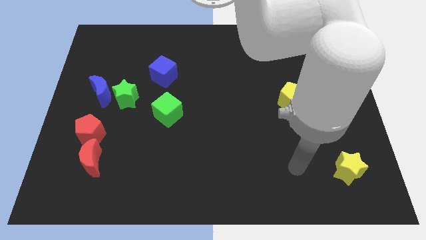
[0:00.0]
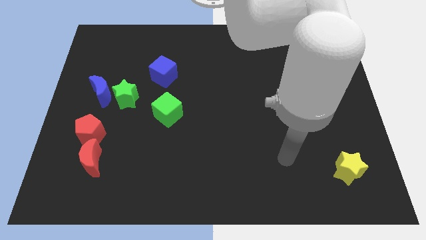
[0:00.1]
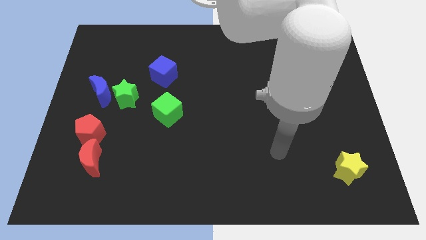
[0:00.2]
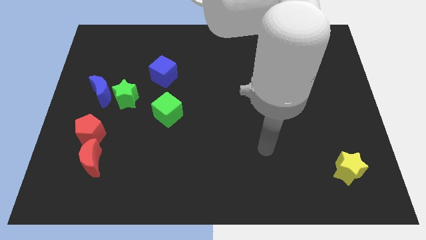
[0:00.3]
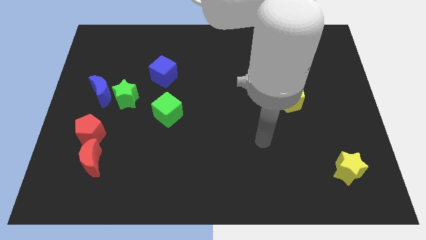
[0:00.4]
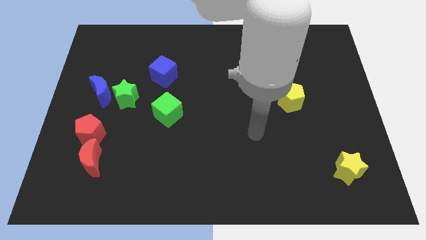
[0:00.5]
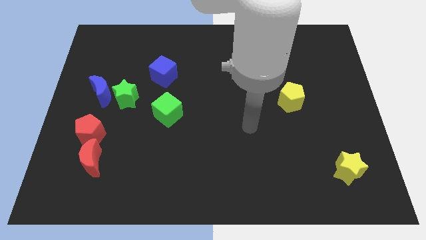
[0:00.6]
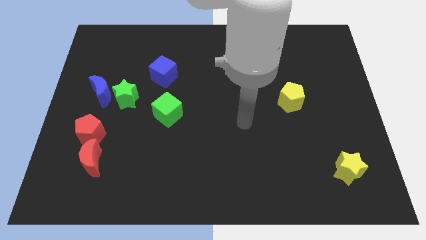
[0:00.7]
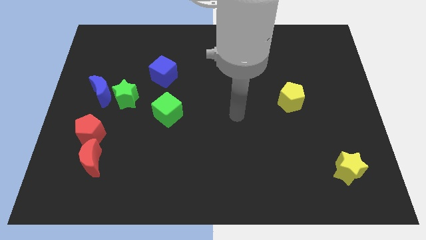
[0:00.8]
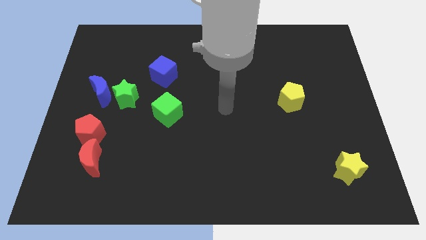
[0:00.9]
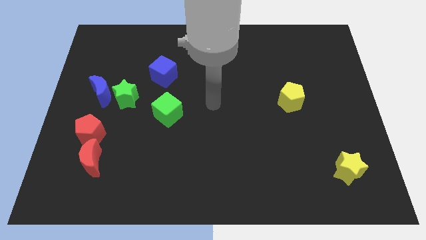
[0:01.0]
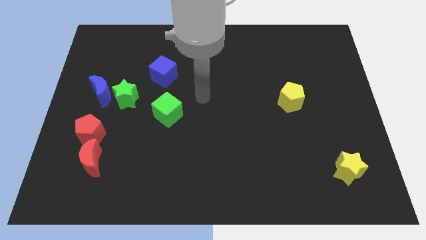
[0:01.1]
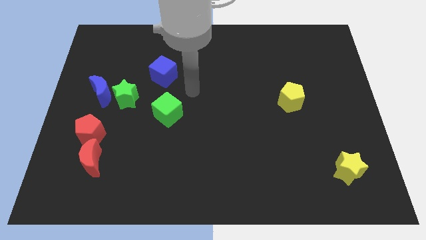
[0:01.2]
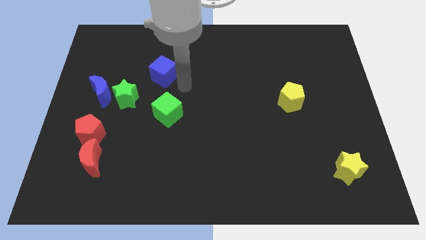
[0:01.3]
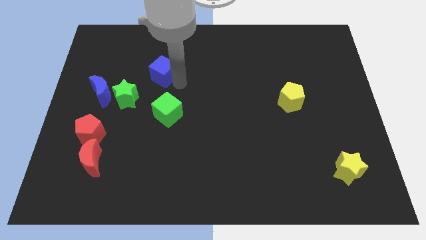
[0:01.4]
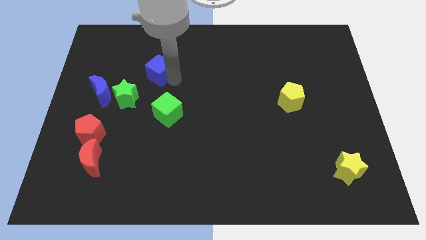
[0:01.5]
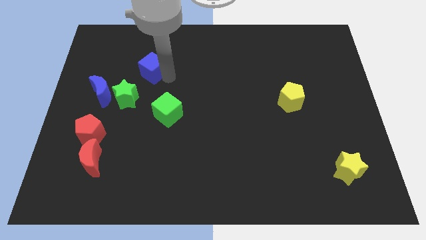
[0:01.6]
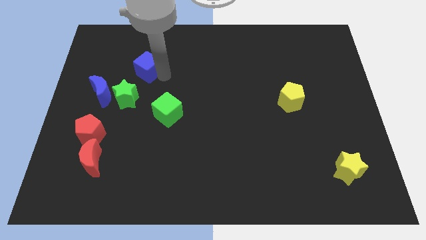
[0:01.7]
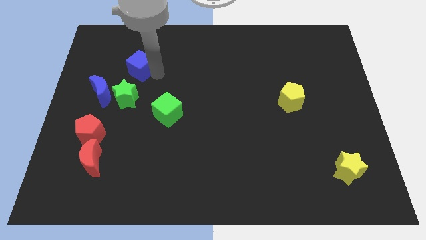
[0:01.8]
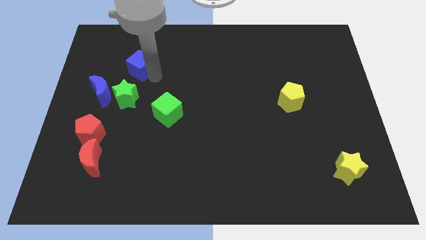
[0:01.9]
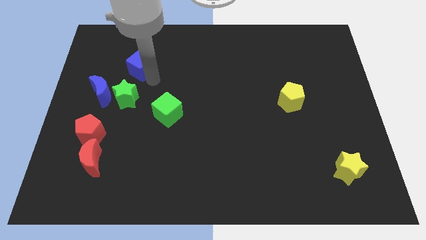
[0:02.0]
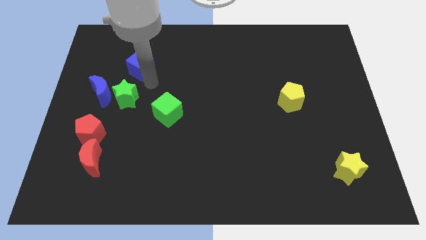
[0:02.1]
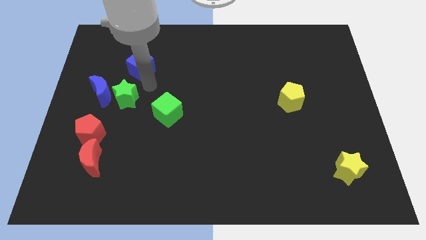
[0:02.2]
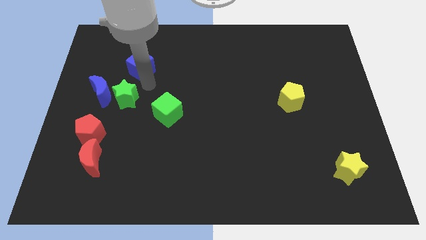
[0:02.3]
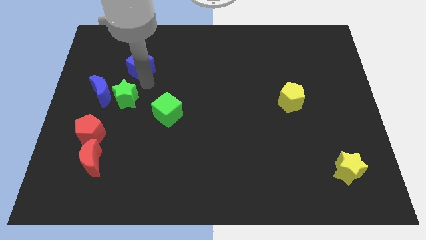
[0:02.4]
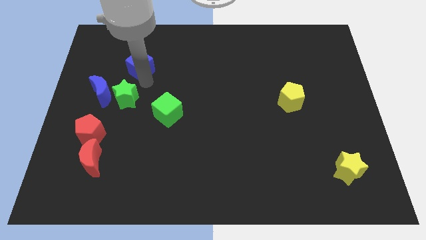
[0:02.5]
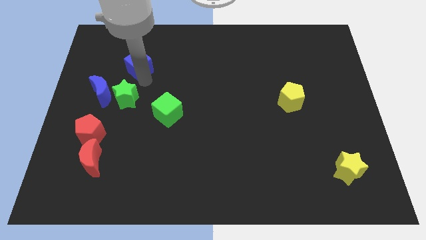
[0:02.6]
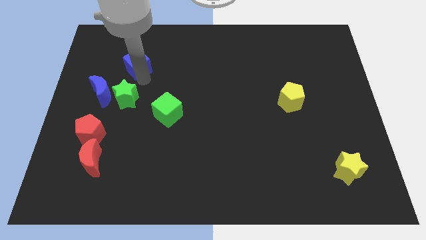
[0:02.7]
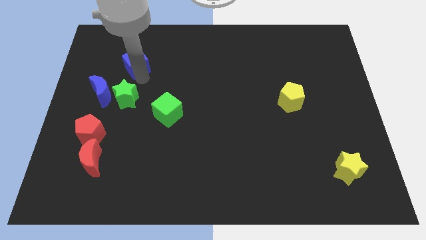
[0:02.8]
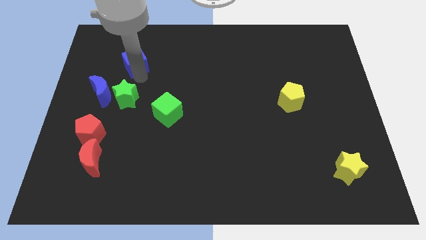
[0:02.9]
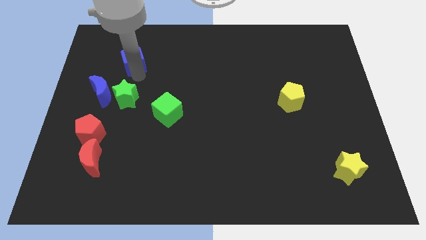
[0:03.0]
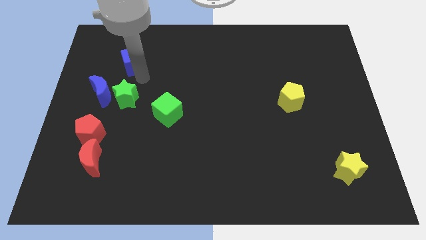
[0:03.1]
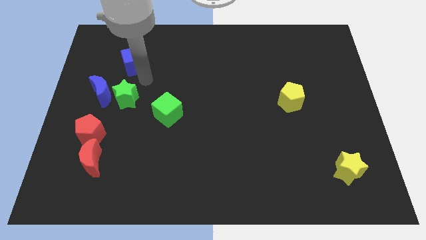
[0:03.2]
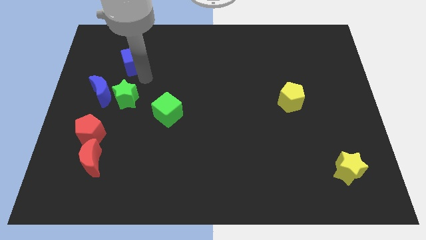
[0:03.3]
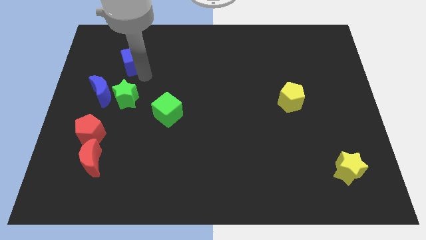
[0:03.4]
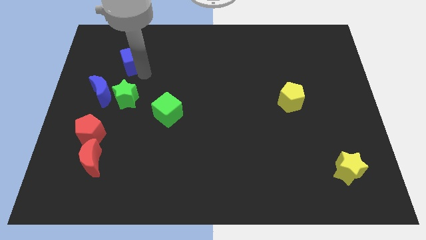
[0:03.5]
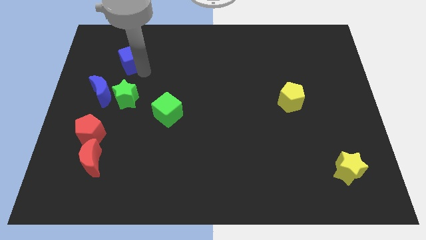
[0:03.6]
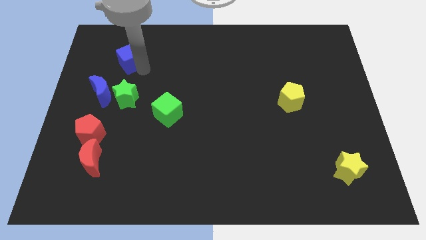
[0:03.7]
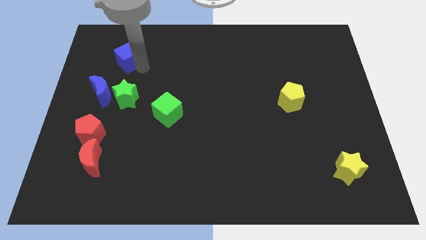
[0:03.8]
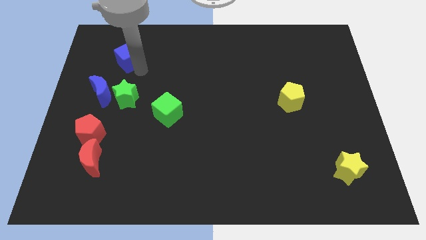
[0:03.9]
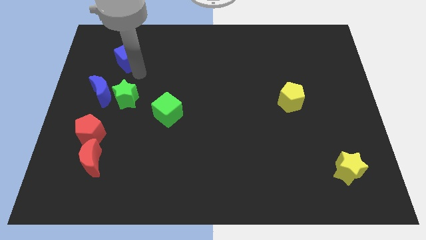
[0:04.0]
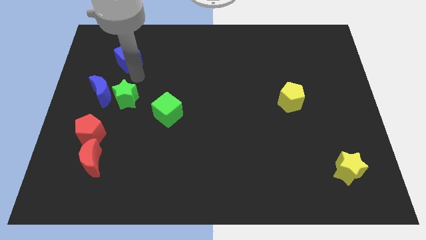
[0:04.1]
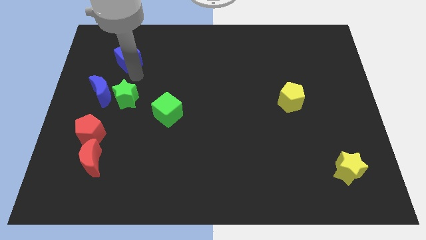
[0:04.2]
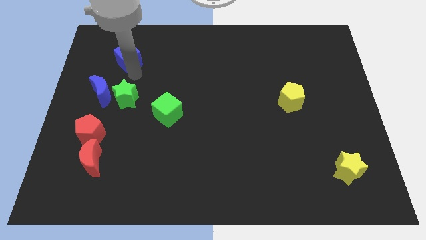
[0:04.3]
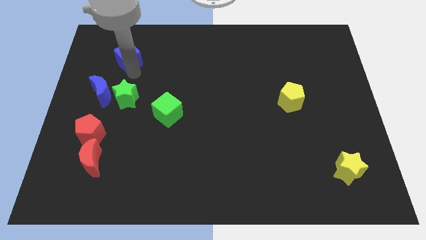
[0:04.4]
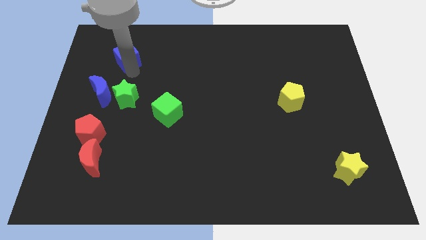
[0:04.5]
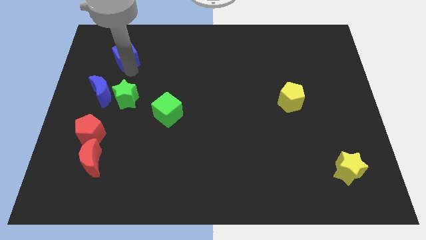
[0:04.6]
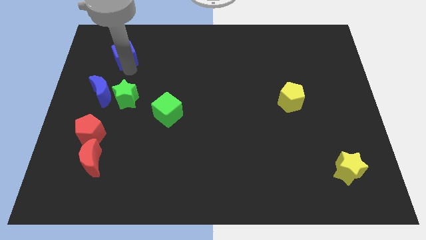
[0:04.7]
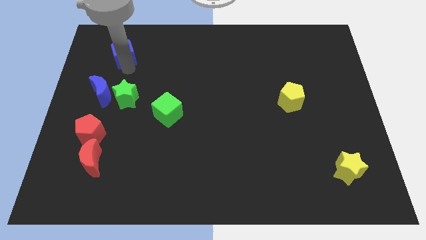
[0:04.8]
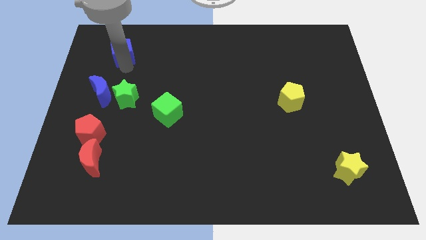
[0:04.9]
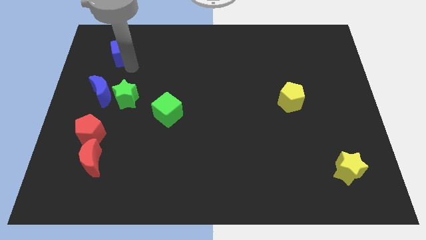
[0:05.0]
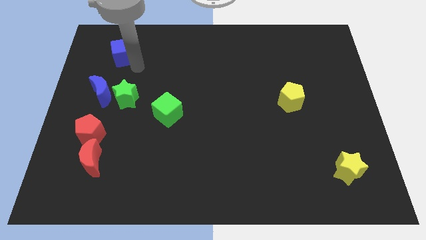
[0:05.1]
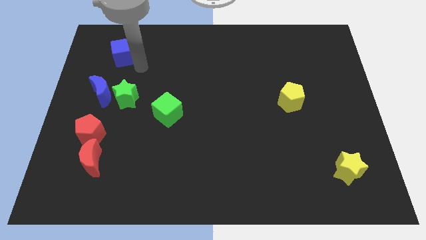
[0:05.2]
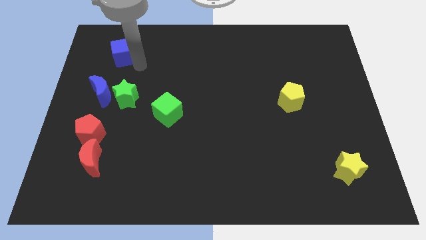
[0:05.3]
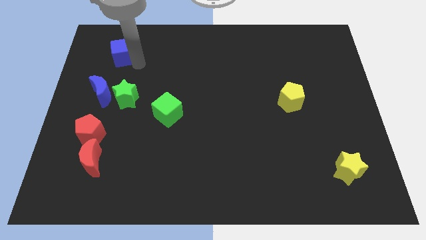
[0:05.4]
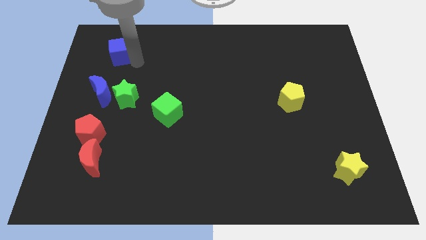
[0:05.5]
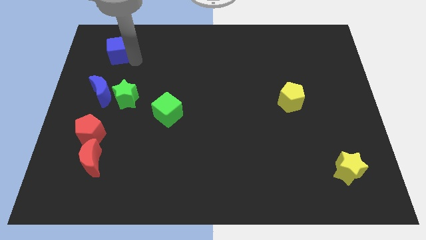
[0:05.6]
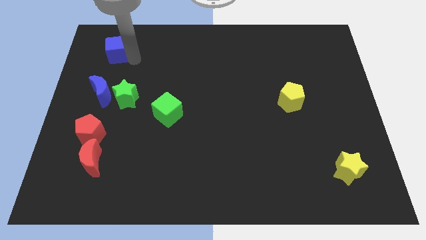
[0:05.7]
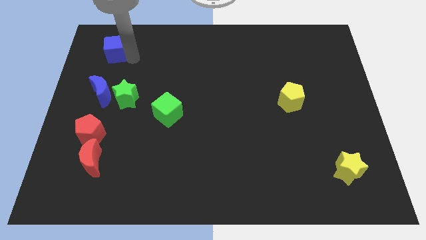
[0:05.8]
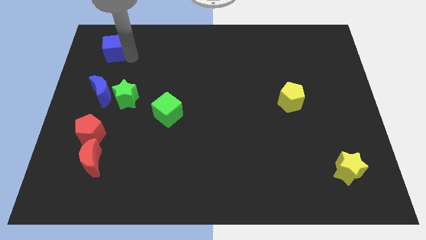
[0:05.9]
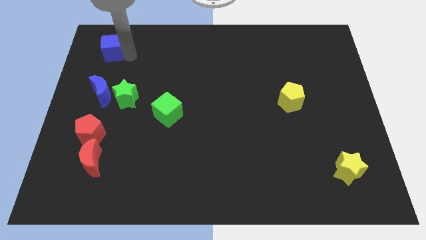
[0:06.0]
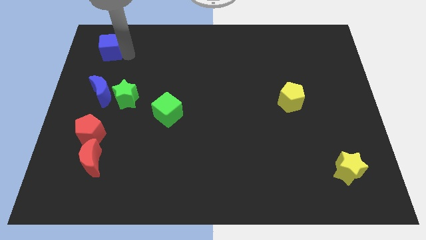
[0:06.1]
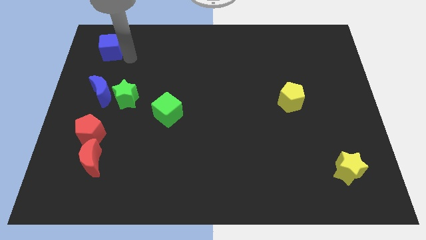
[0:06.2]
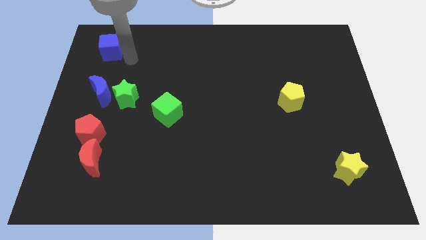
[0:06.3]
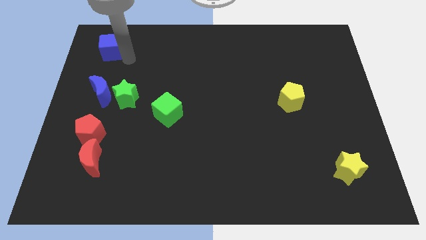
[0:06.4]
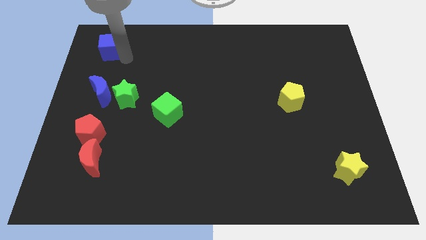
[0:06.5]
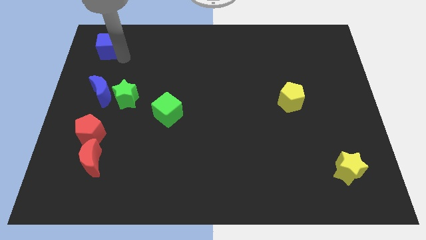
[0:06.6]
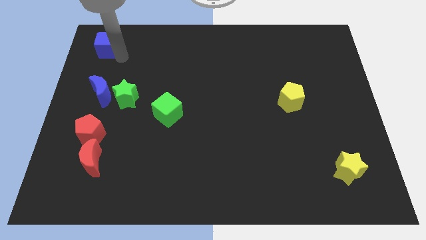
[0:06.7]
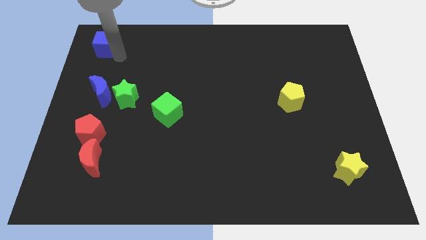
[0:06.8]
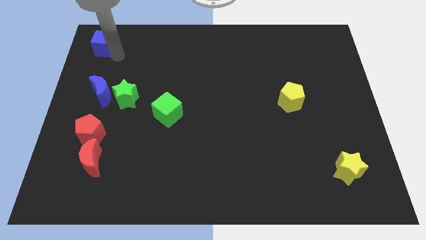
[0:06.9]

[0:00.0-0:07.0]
slide the blue cube to the top left
